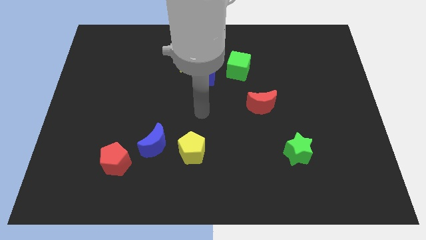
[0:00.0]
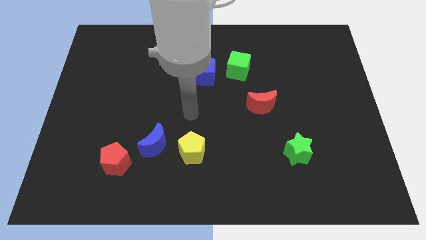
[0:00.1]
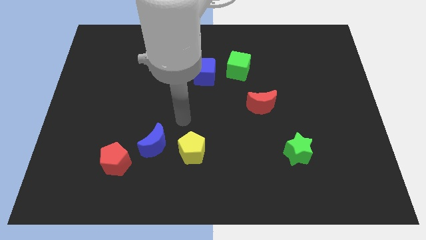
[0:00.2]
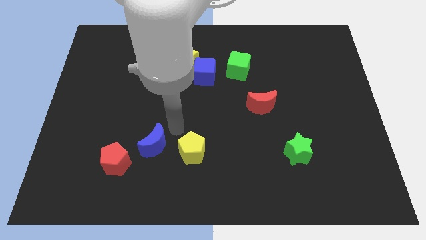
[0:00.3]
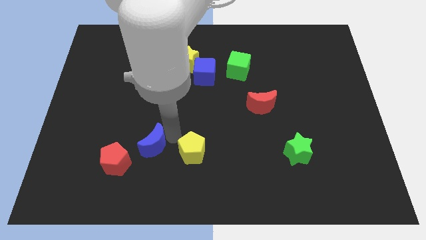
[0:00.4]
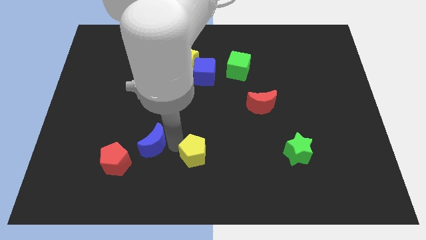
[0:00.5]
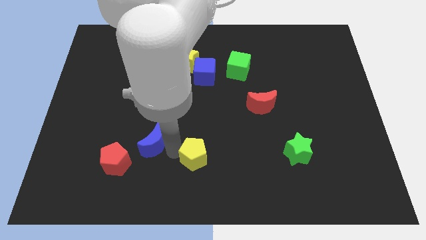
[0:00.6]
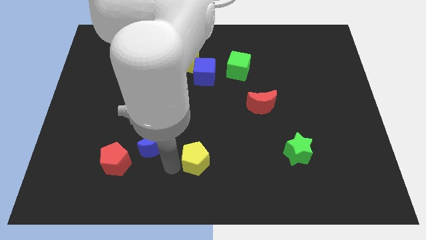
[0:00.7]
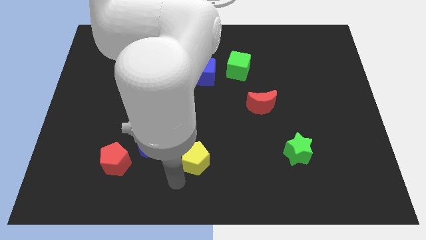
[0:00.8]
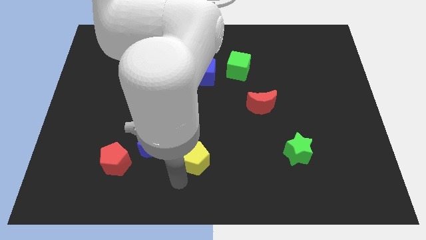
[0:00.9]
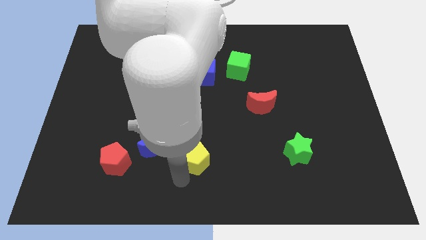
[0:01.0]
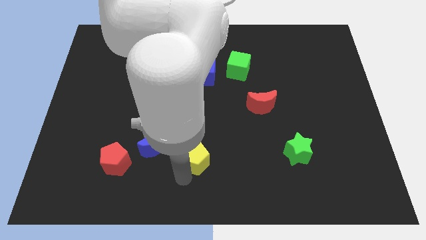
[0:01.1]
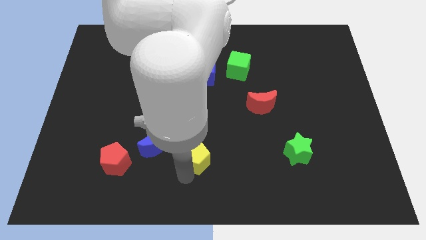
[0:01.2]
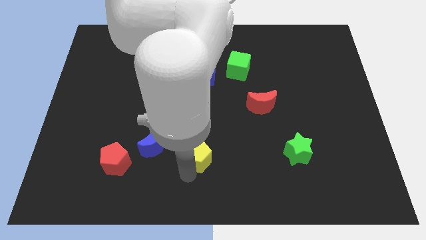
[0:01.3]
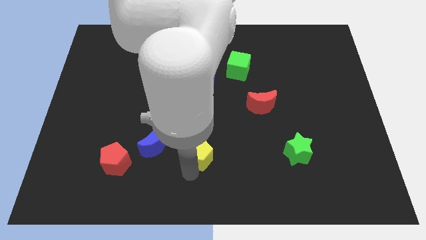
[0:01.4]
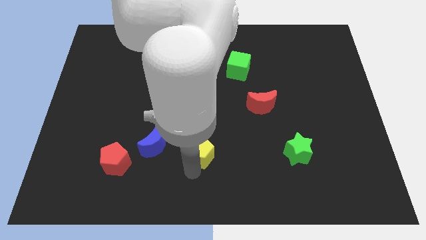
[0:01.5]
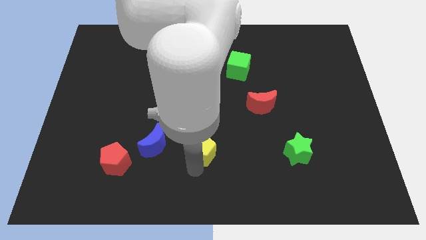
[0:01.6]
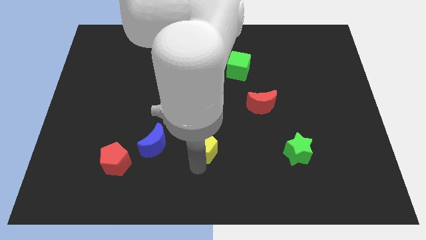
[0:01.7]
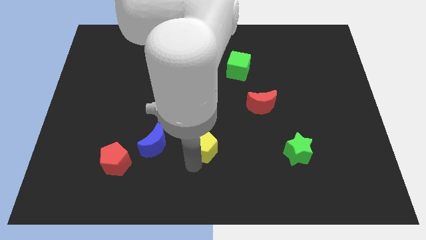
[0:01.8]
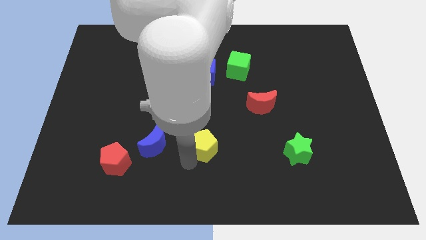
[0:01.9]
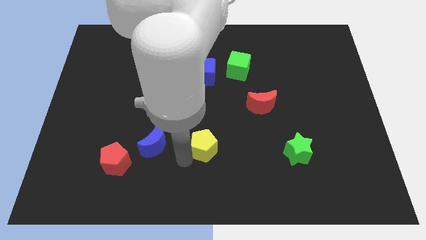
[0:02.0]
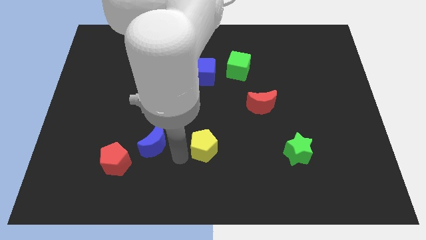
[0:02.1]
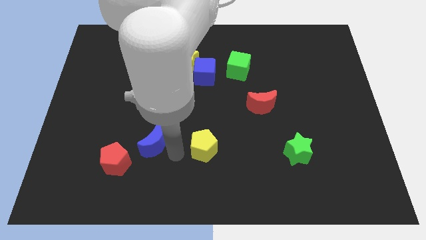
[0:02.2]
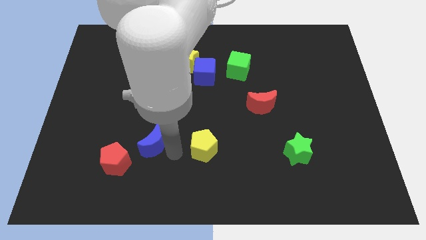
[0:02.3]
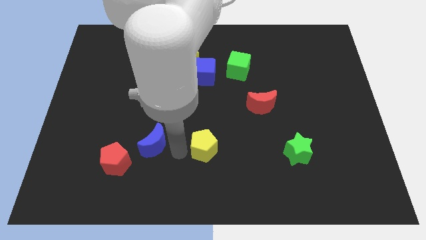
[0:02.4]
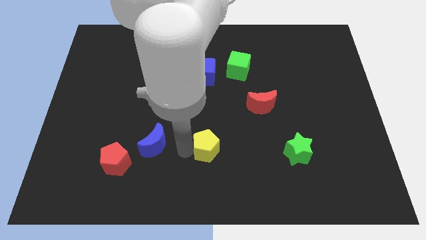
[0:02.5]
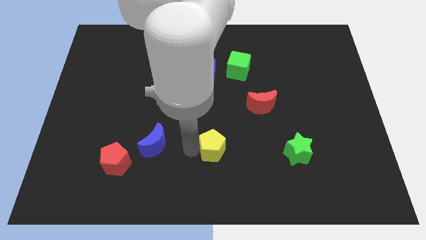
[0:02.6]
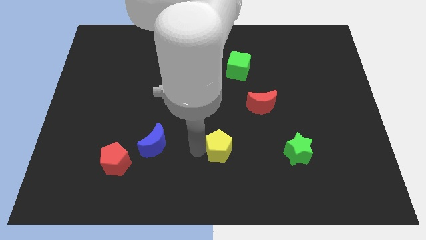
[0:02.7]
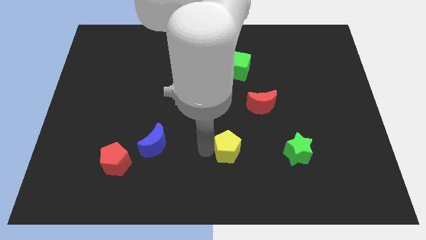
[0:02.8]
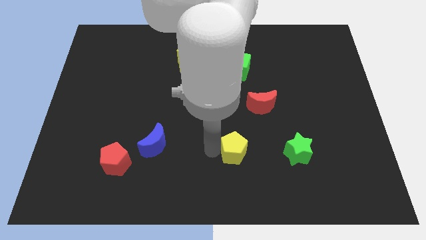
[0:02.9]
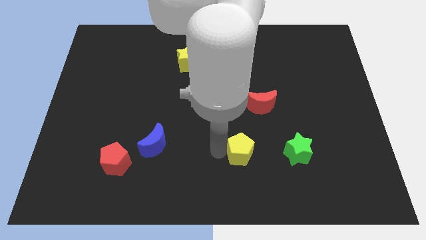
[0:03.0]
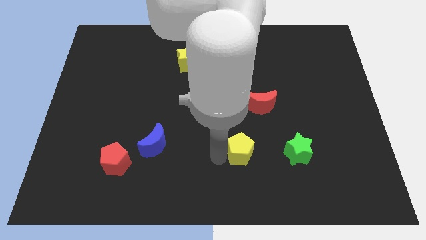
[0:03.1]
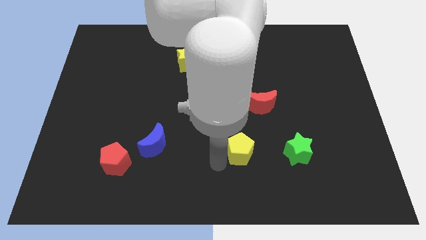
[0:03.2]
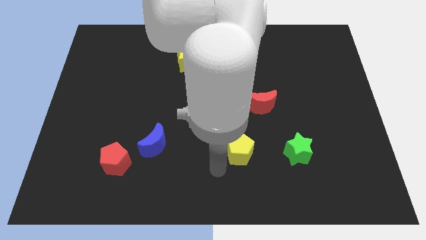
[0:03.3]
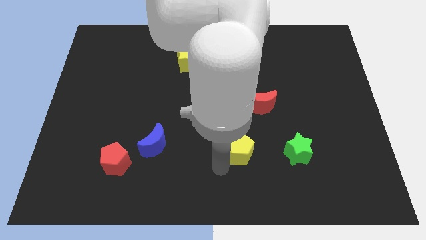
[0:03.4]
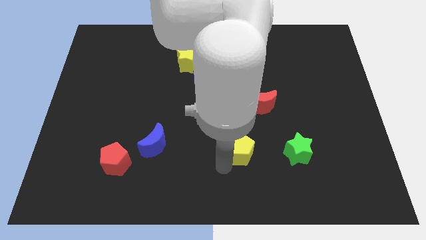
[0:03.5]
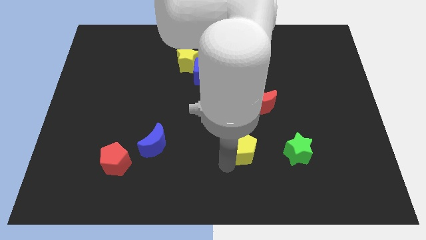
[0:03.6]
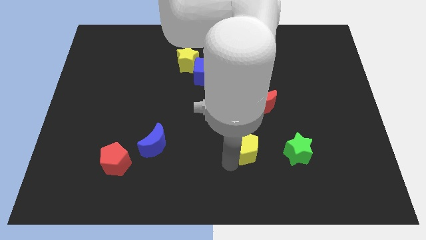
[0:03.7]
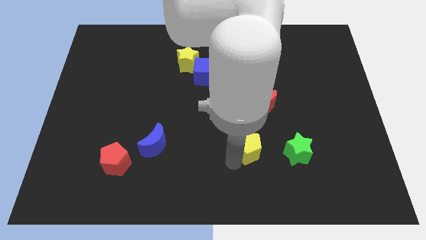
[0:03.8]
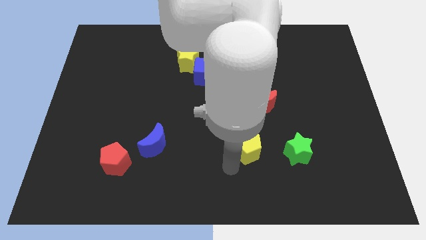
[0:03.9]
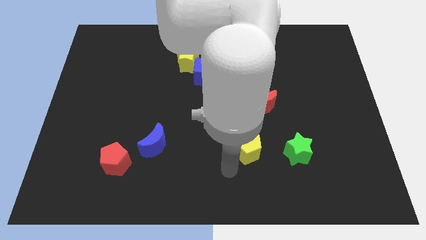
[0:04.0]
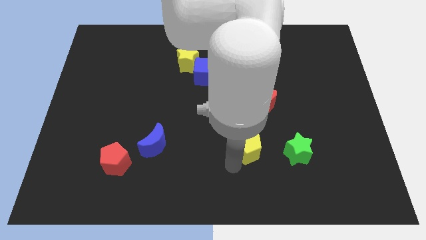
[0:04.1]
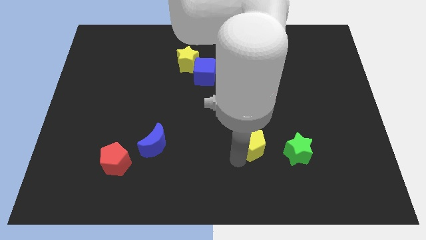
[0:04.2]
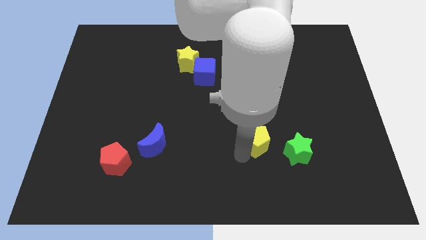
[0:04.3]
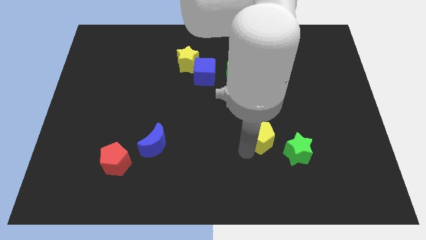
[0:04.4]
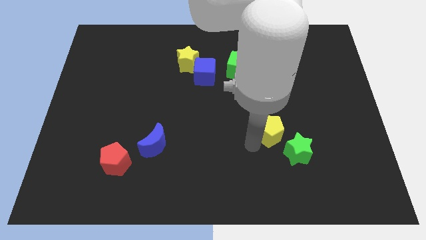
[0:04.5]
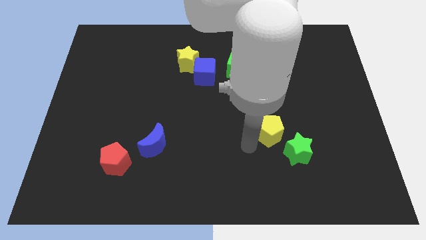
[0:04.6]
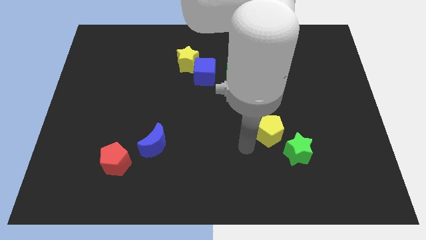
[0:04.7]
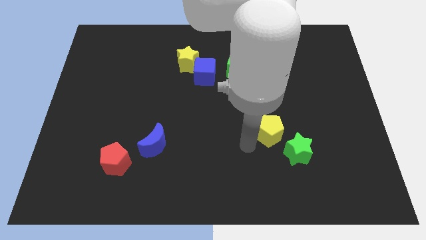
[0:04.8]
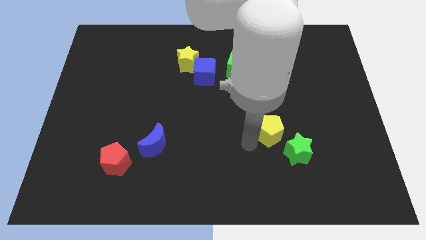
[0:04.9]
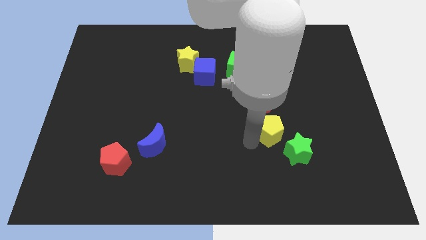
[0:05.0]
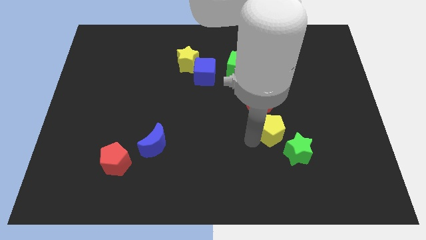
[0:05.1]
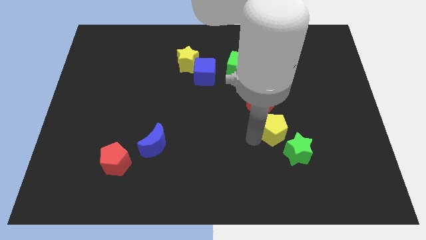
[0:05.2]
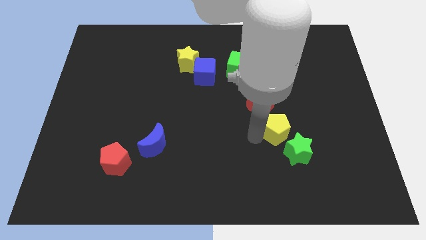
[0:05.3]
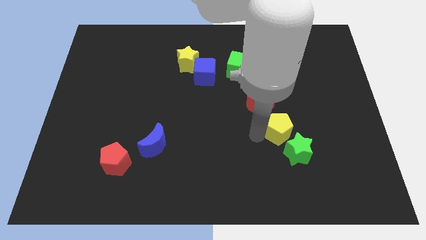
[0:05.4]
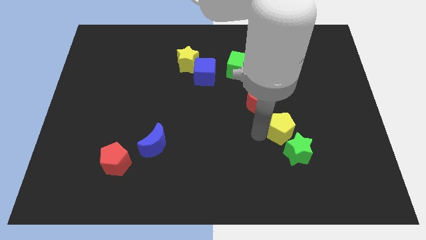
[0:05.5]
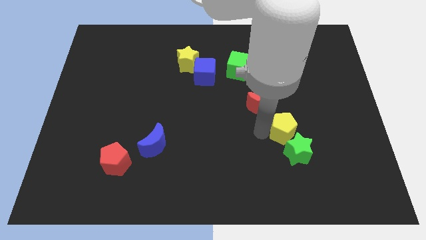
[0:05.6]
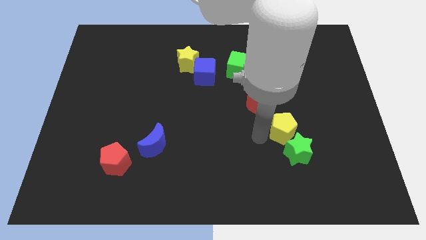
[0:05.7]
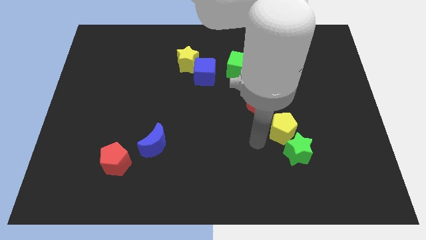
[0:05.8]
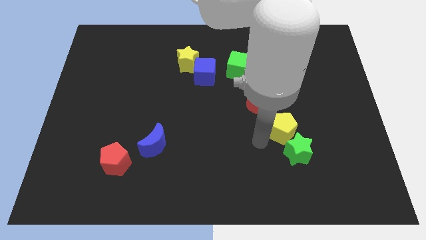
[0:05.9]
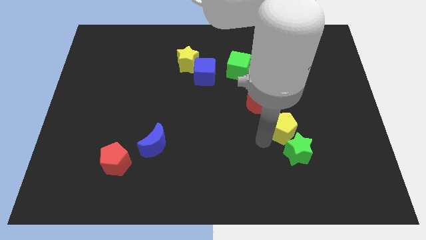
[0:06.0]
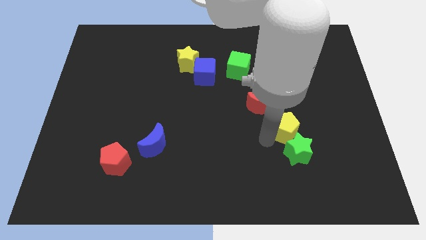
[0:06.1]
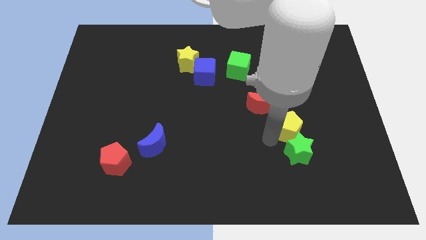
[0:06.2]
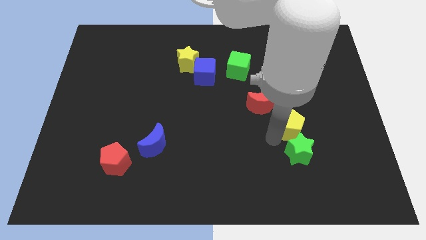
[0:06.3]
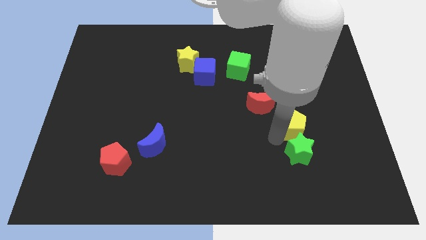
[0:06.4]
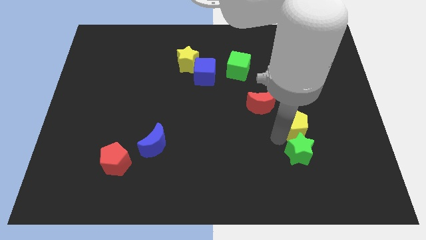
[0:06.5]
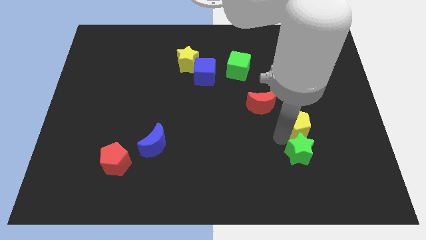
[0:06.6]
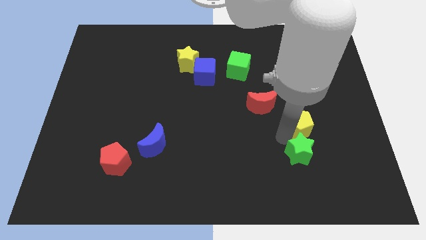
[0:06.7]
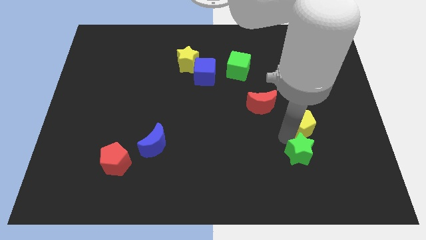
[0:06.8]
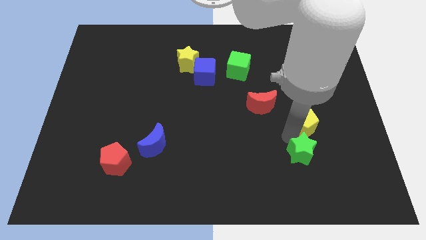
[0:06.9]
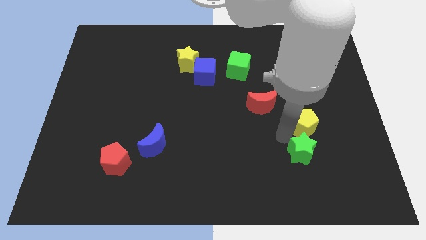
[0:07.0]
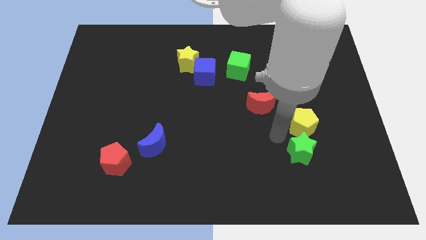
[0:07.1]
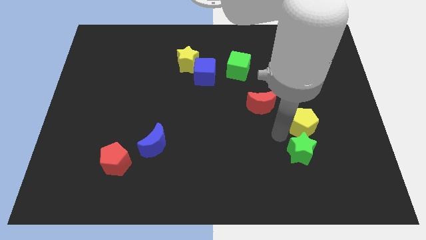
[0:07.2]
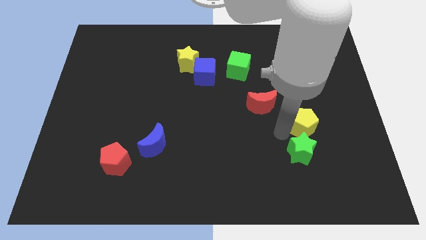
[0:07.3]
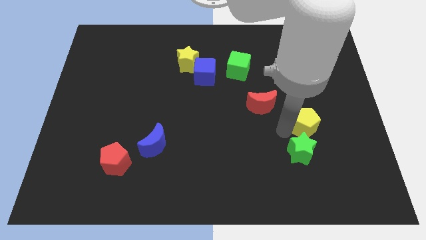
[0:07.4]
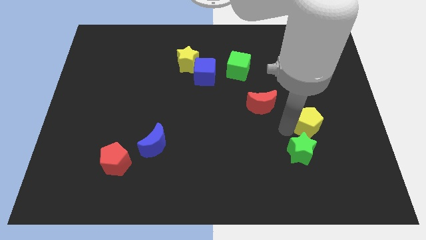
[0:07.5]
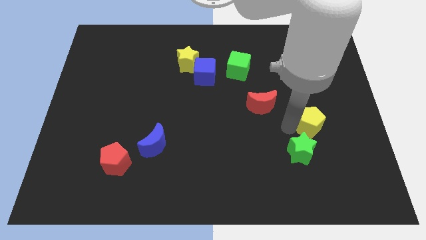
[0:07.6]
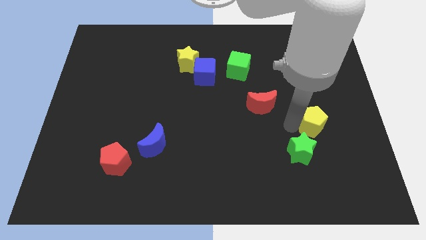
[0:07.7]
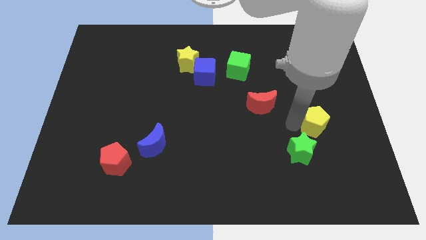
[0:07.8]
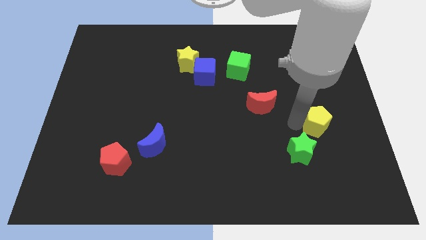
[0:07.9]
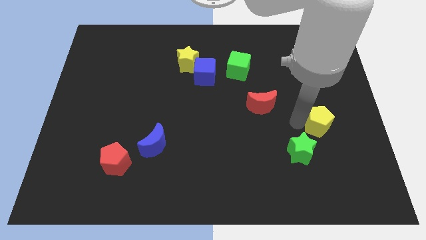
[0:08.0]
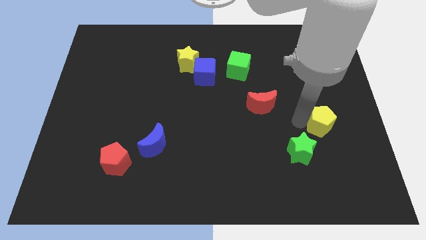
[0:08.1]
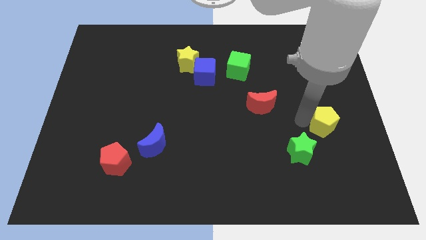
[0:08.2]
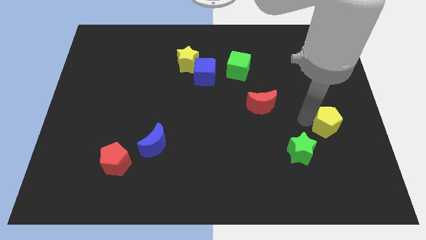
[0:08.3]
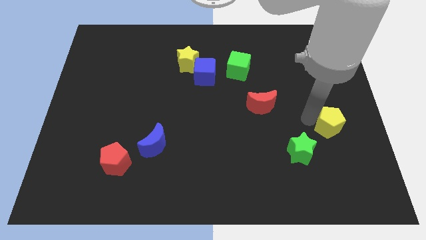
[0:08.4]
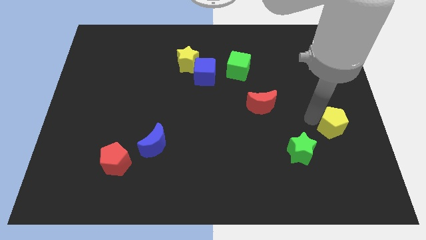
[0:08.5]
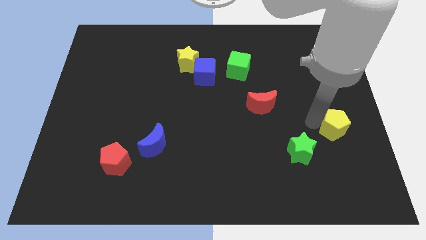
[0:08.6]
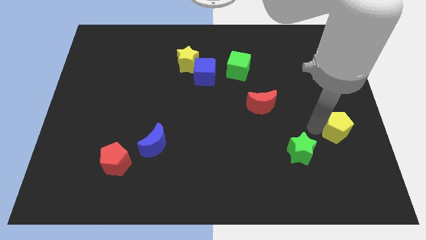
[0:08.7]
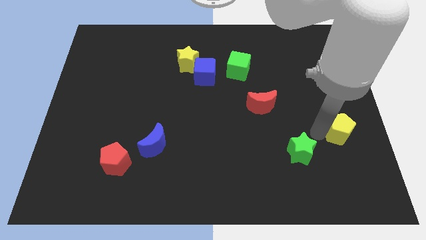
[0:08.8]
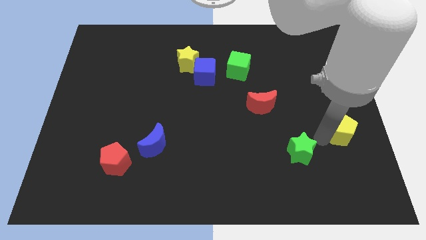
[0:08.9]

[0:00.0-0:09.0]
slide the yellow pentagon to the right side
